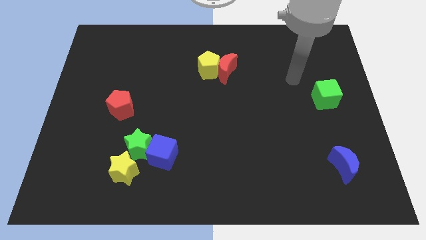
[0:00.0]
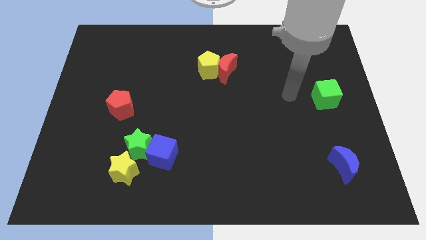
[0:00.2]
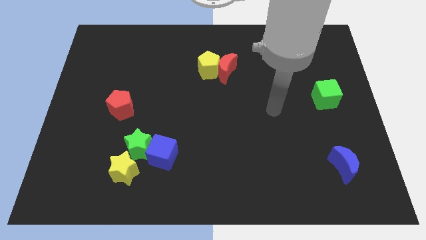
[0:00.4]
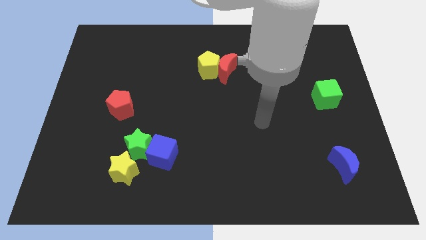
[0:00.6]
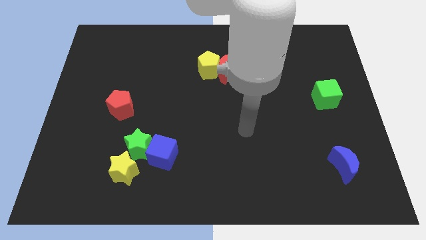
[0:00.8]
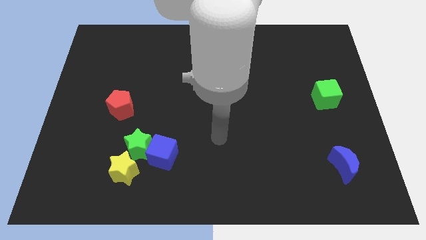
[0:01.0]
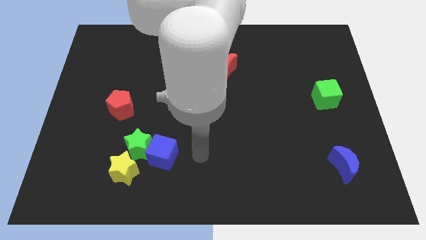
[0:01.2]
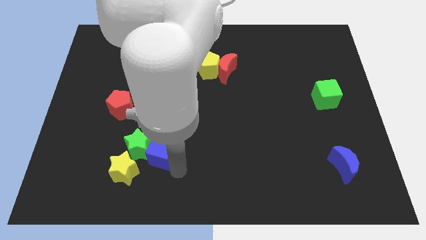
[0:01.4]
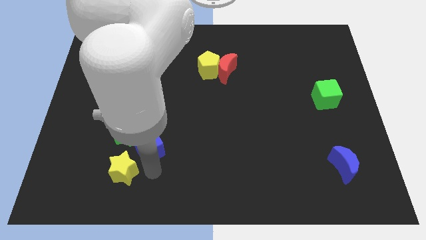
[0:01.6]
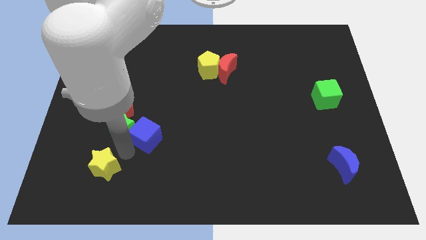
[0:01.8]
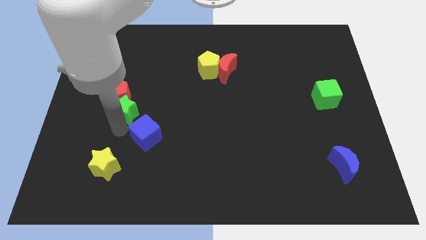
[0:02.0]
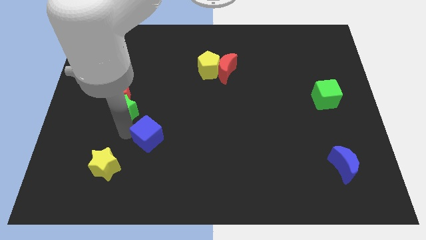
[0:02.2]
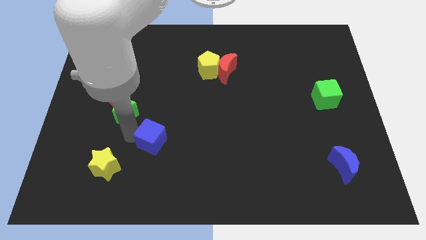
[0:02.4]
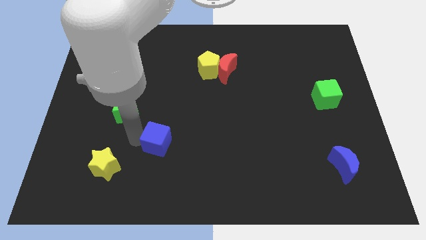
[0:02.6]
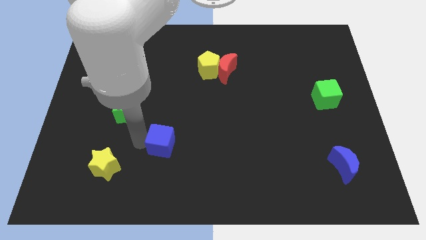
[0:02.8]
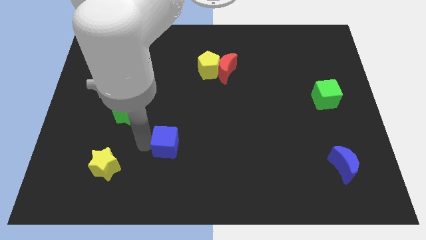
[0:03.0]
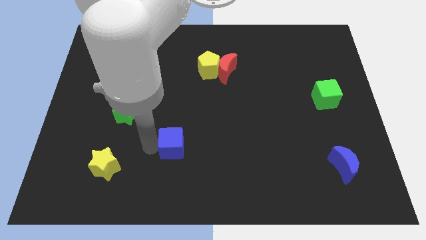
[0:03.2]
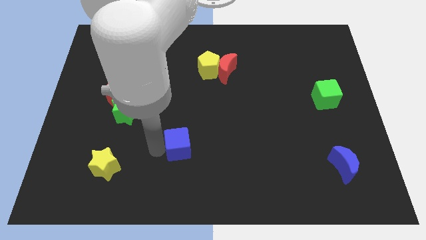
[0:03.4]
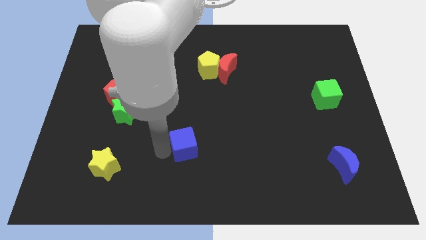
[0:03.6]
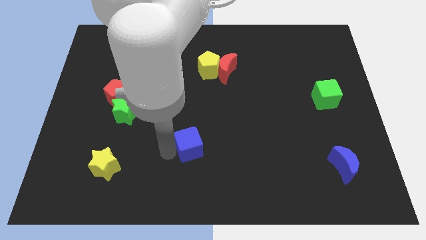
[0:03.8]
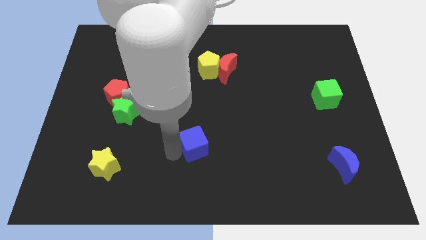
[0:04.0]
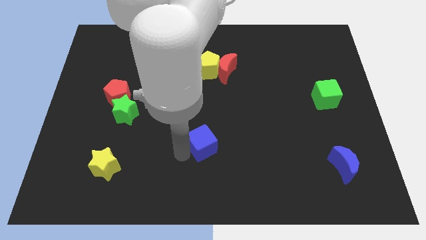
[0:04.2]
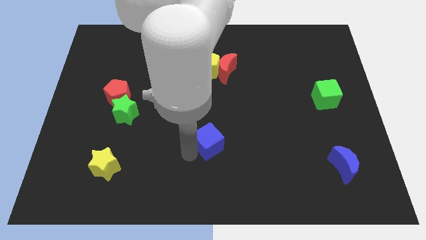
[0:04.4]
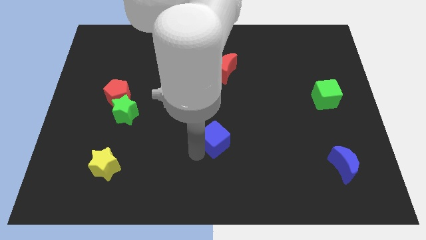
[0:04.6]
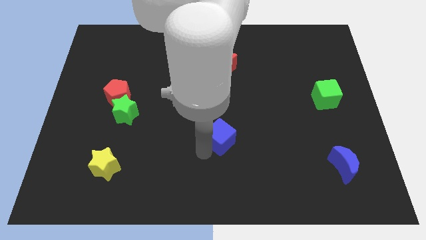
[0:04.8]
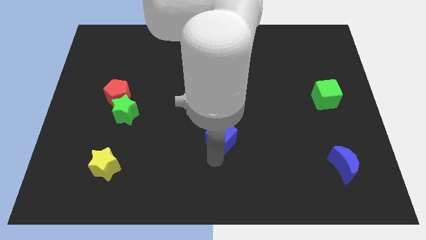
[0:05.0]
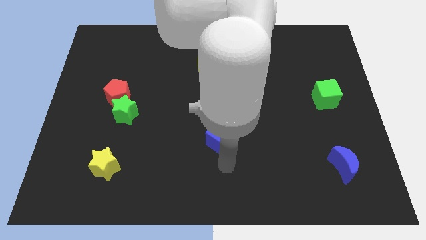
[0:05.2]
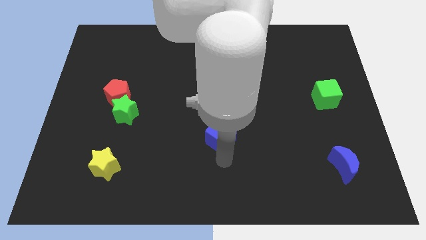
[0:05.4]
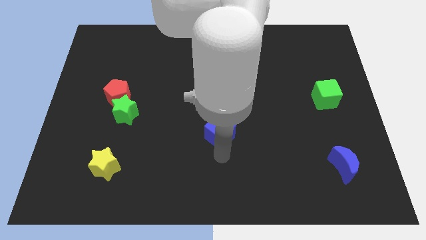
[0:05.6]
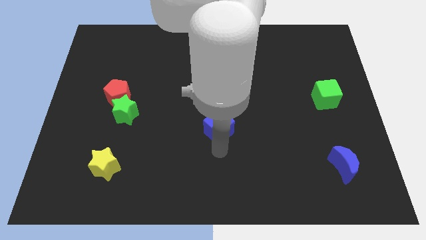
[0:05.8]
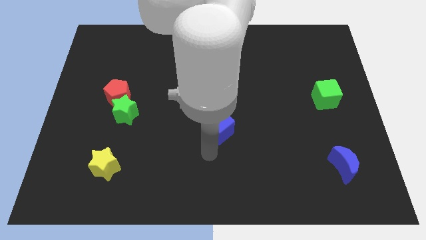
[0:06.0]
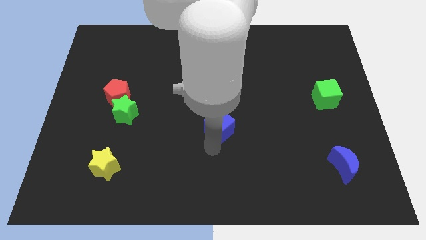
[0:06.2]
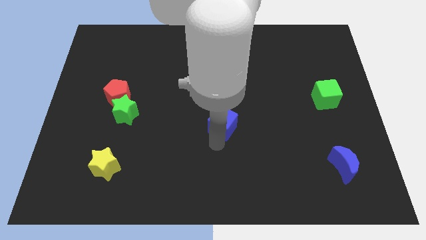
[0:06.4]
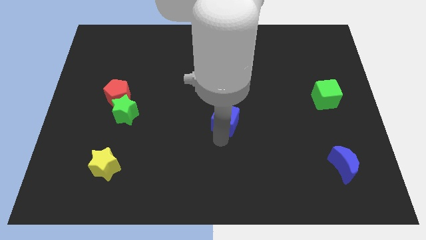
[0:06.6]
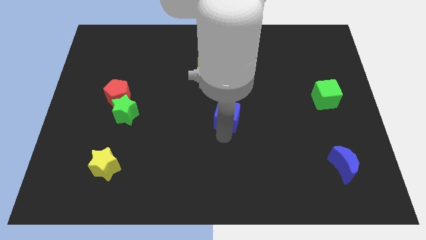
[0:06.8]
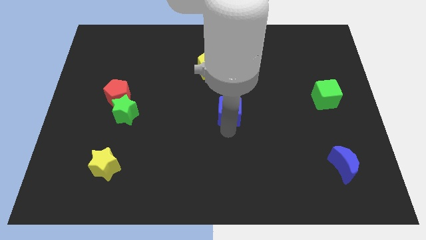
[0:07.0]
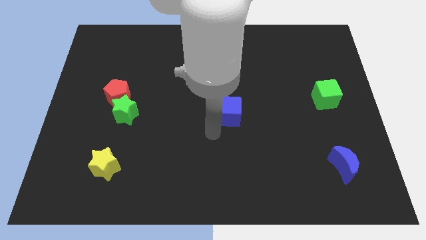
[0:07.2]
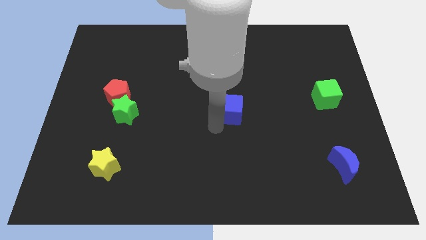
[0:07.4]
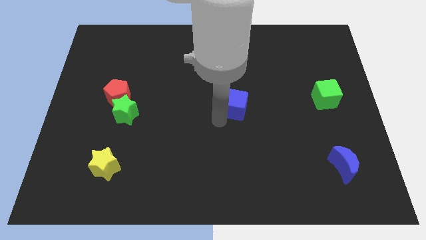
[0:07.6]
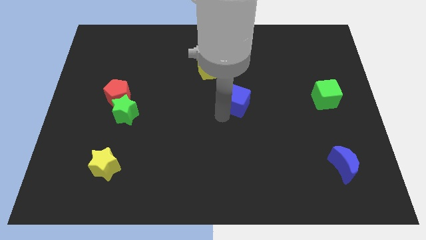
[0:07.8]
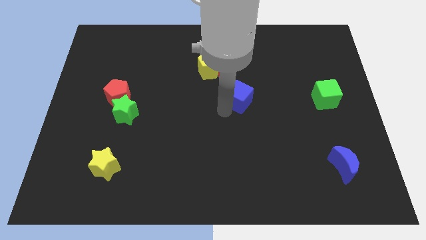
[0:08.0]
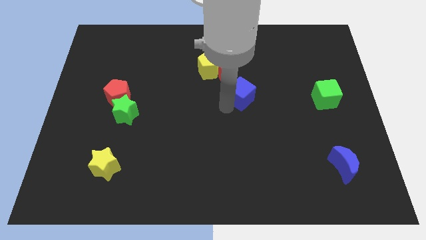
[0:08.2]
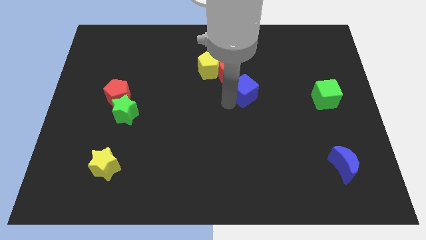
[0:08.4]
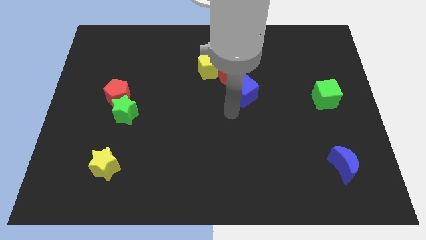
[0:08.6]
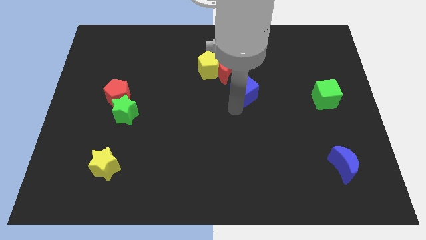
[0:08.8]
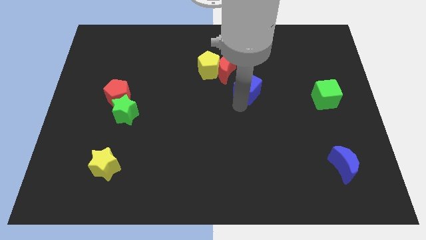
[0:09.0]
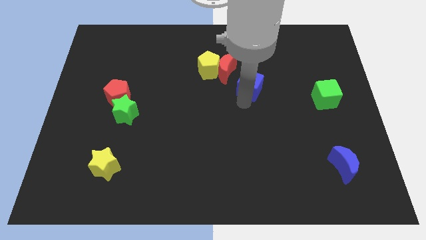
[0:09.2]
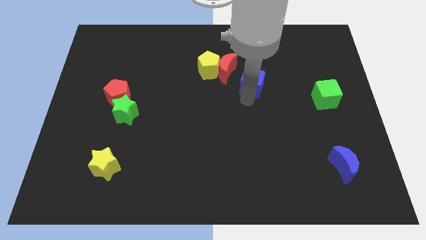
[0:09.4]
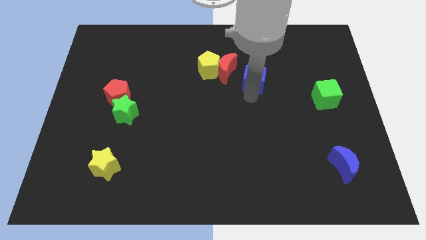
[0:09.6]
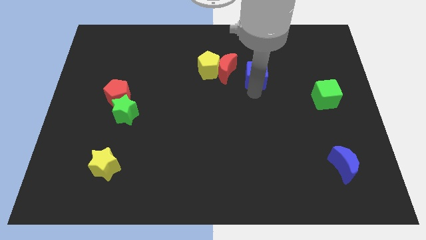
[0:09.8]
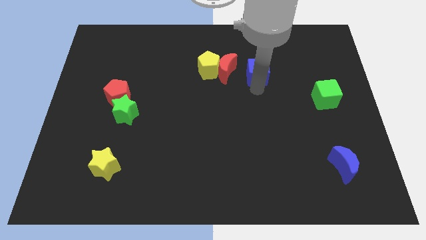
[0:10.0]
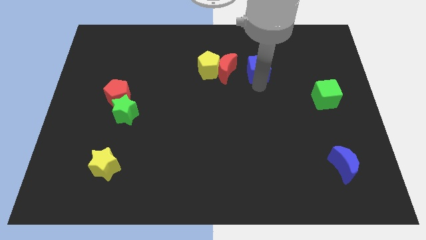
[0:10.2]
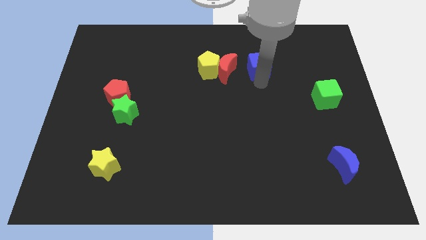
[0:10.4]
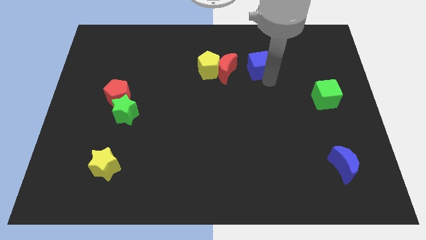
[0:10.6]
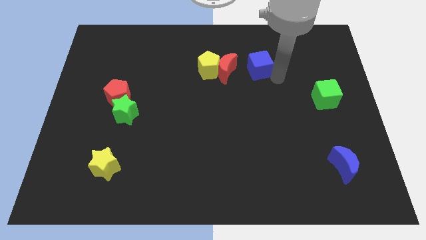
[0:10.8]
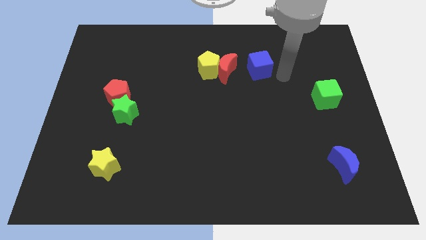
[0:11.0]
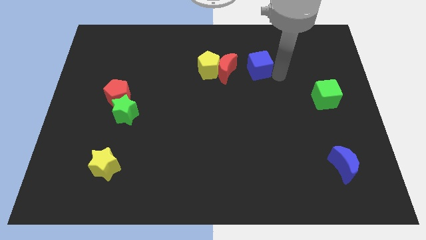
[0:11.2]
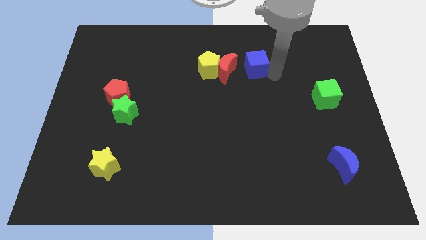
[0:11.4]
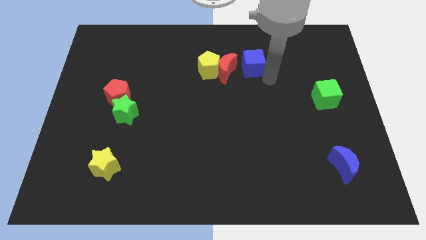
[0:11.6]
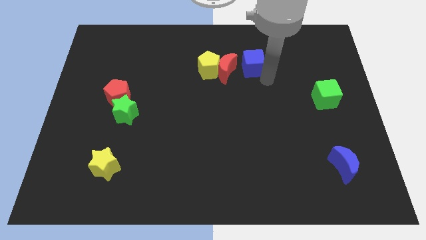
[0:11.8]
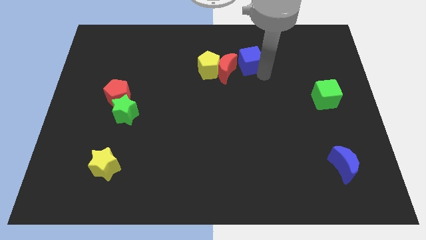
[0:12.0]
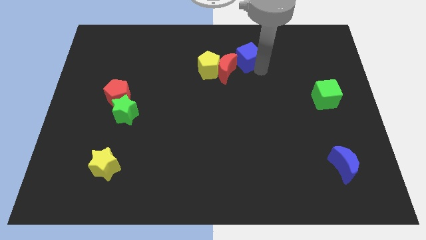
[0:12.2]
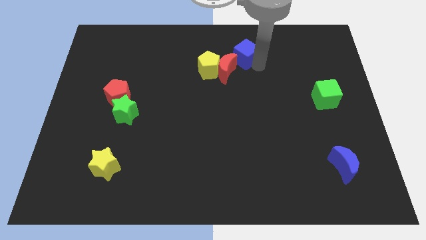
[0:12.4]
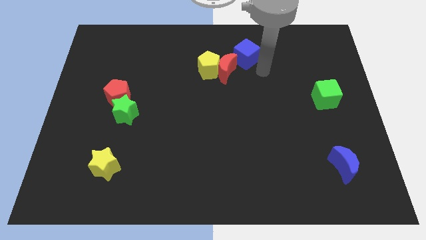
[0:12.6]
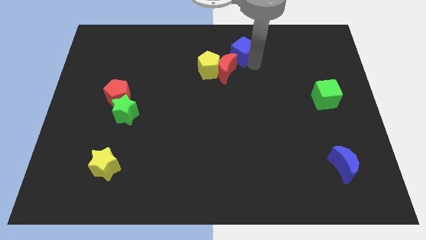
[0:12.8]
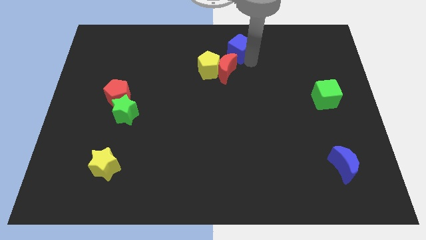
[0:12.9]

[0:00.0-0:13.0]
slide the blue cube to the top side

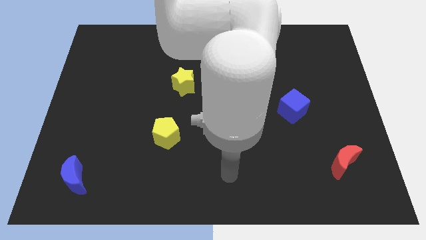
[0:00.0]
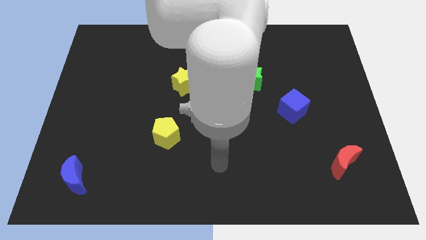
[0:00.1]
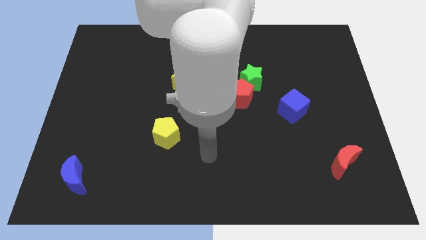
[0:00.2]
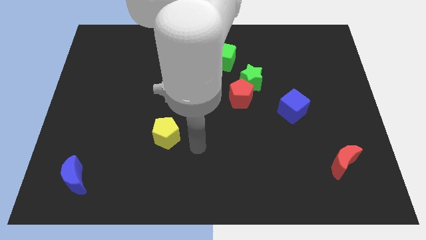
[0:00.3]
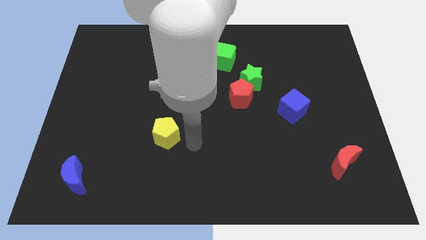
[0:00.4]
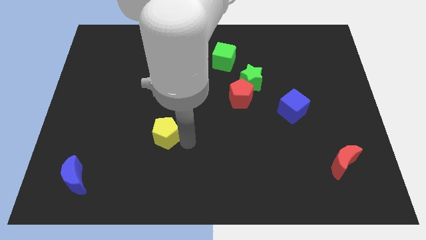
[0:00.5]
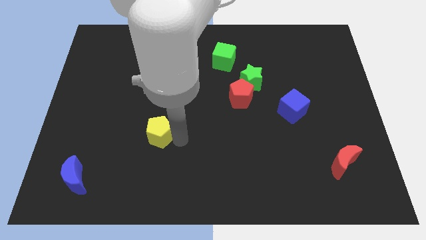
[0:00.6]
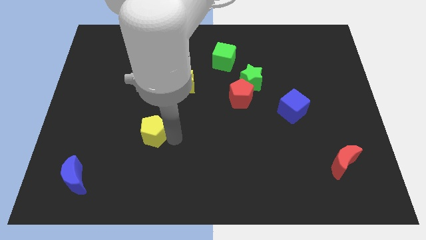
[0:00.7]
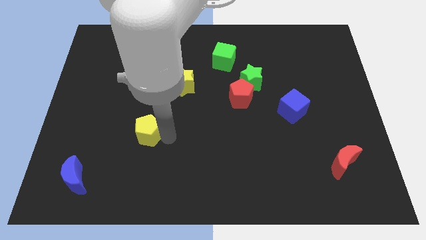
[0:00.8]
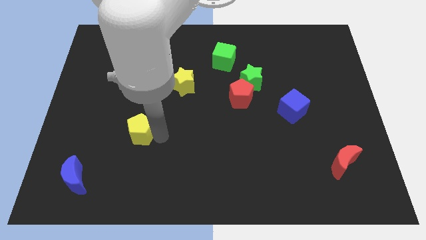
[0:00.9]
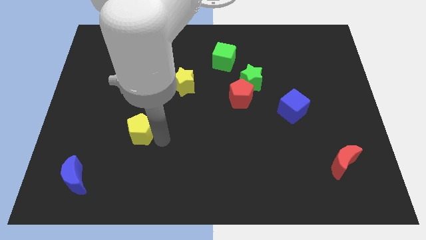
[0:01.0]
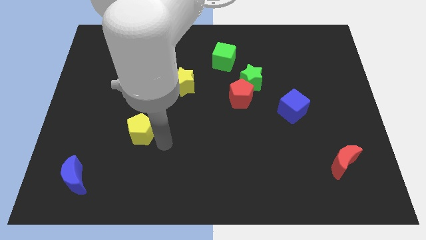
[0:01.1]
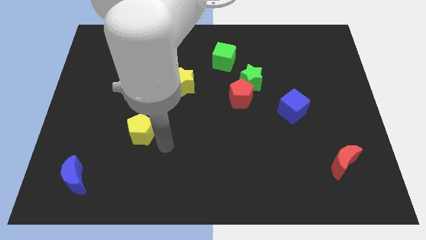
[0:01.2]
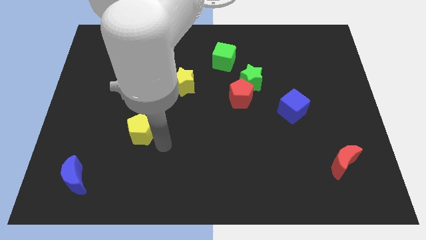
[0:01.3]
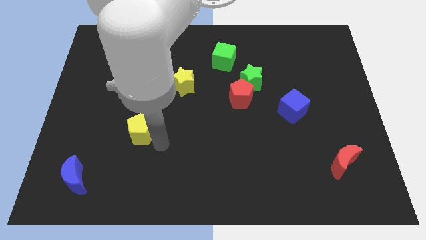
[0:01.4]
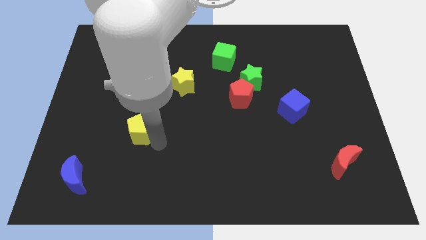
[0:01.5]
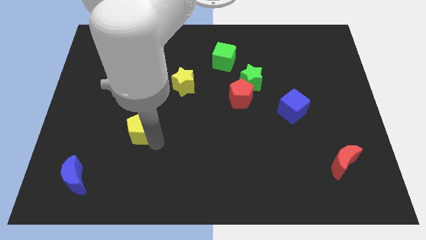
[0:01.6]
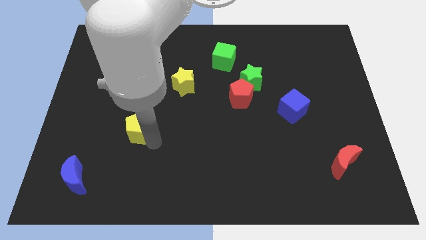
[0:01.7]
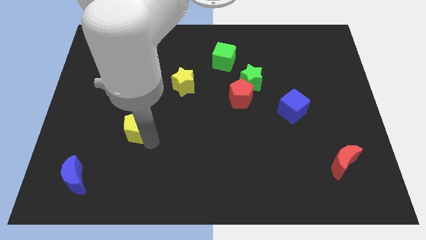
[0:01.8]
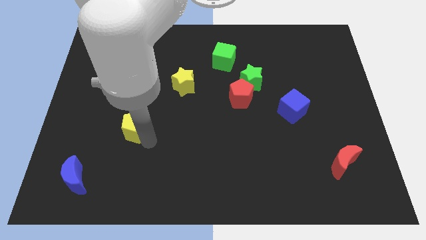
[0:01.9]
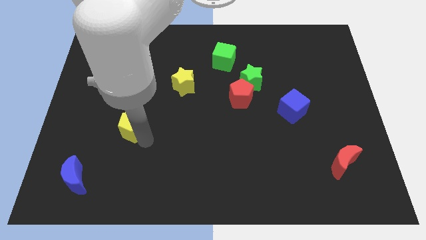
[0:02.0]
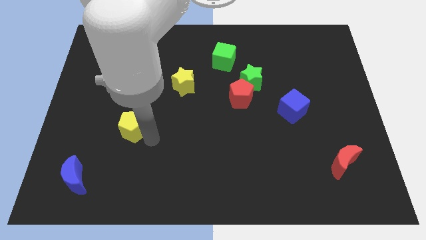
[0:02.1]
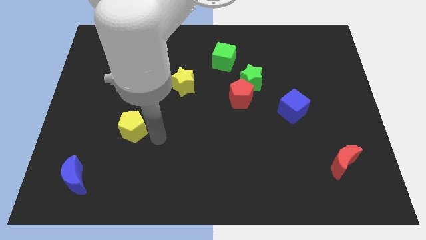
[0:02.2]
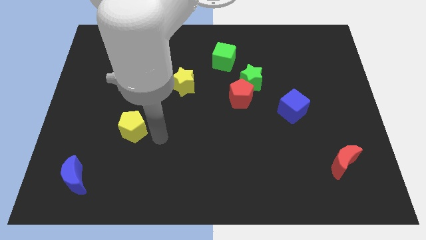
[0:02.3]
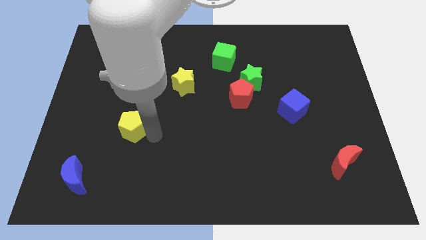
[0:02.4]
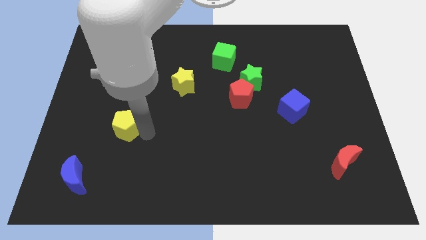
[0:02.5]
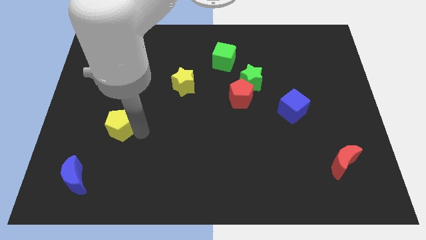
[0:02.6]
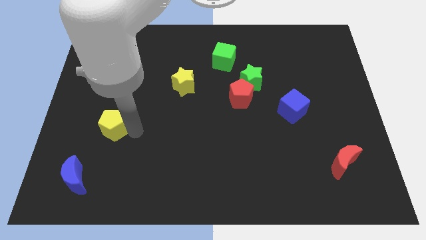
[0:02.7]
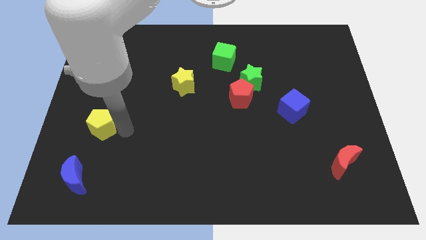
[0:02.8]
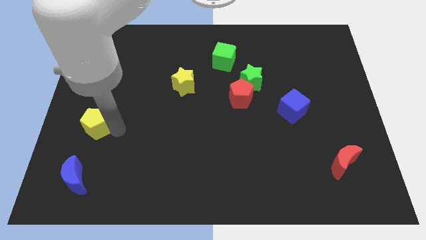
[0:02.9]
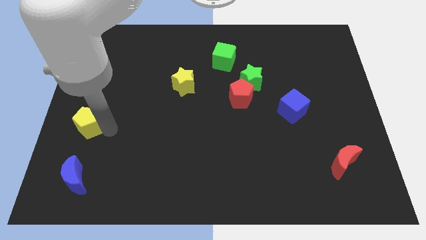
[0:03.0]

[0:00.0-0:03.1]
slide the yellow pentagon to the left side of the board
